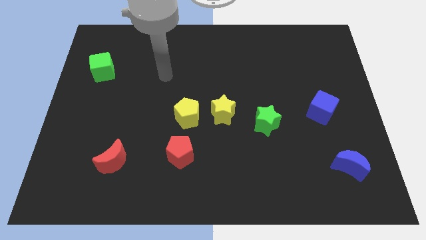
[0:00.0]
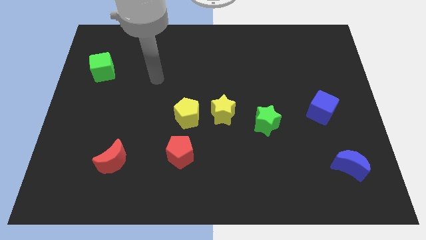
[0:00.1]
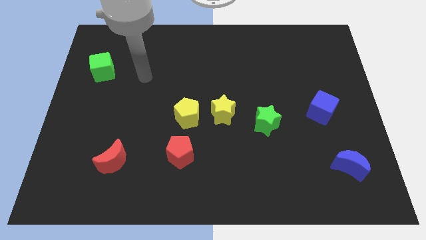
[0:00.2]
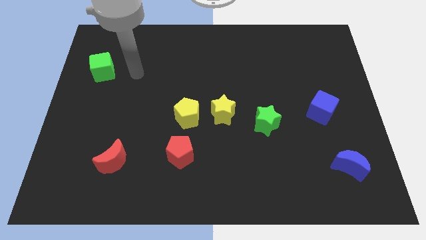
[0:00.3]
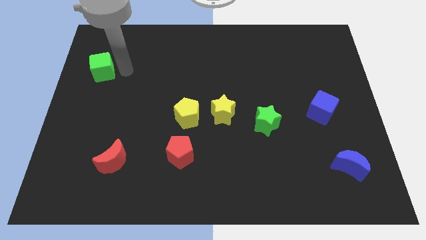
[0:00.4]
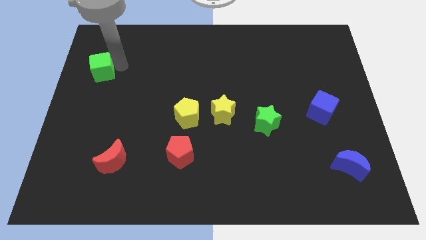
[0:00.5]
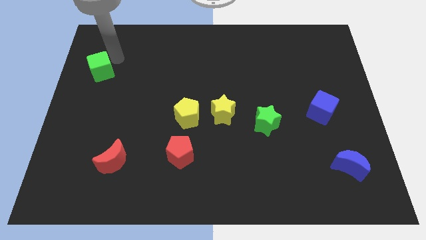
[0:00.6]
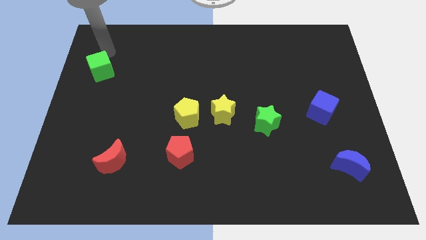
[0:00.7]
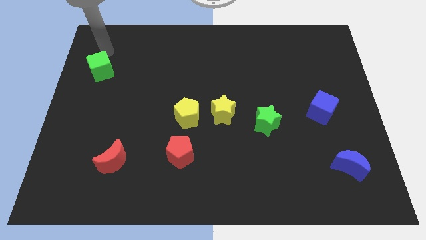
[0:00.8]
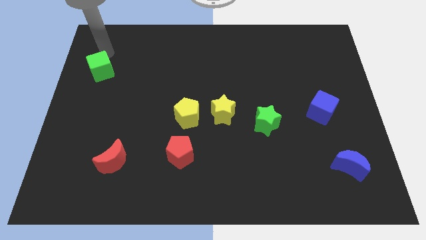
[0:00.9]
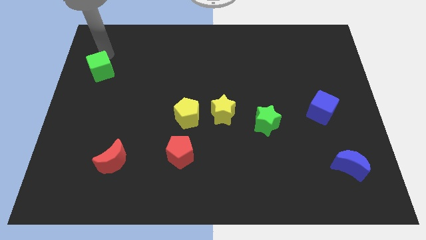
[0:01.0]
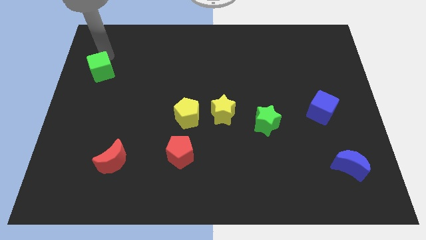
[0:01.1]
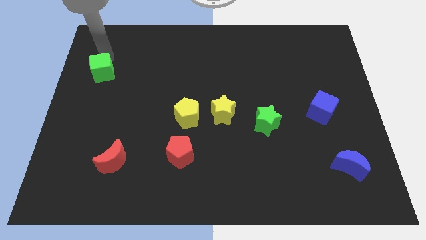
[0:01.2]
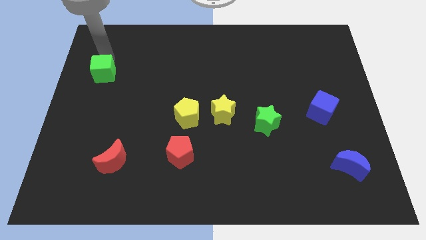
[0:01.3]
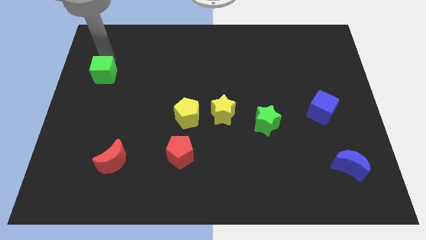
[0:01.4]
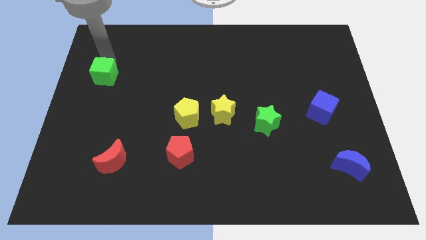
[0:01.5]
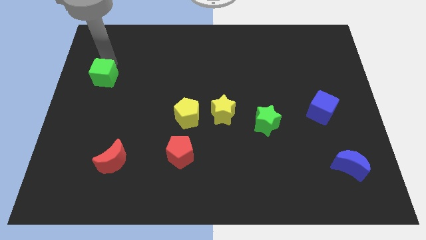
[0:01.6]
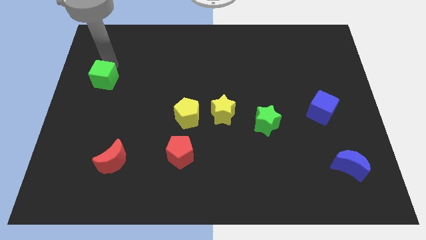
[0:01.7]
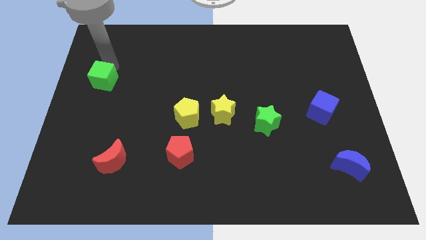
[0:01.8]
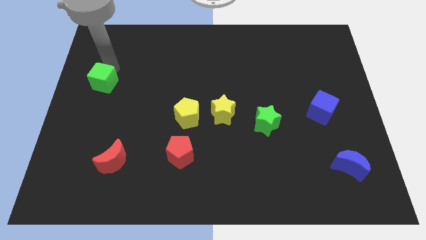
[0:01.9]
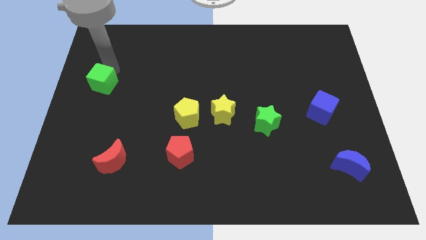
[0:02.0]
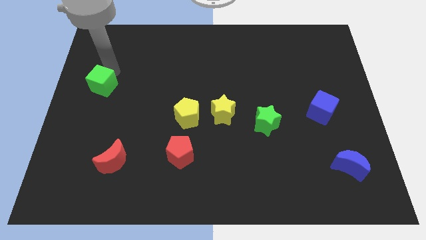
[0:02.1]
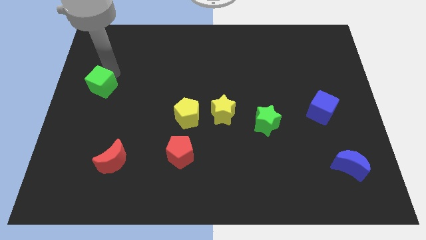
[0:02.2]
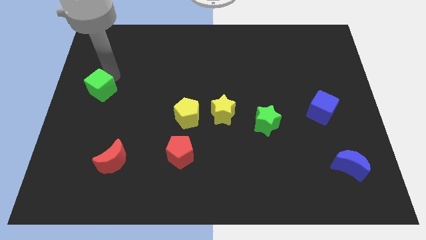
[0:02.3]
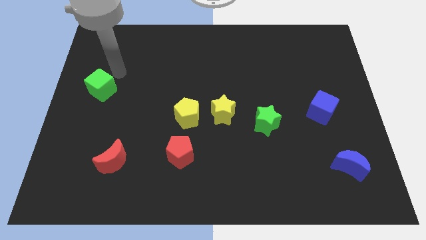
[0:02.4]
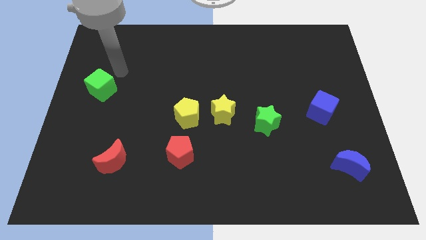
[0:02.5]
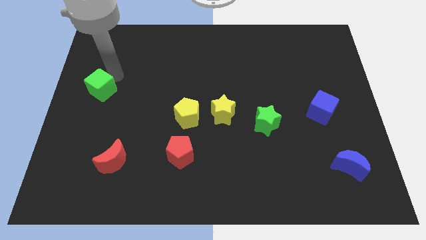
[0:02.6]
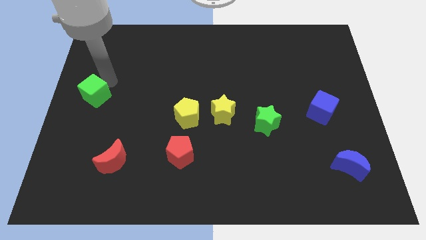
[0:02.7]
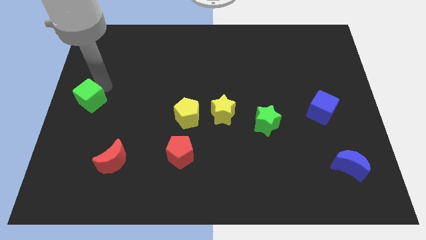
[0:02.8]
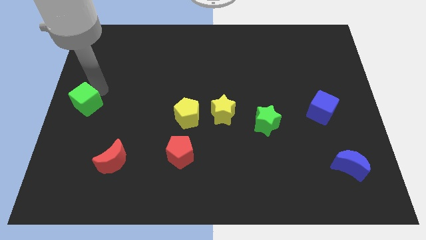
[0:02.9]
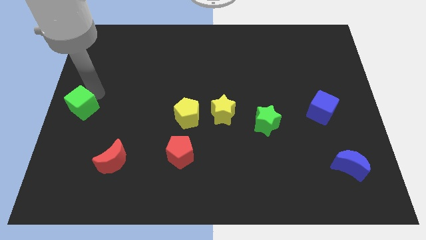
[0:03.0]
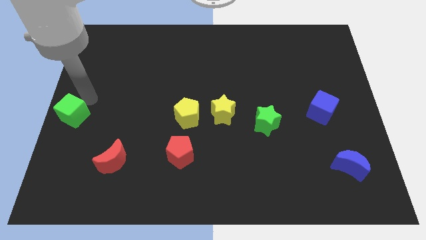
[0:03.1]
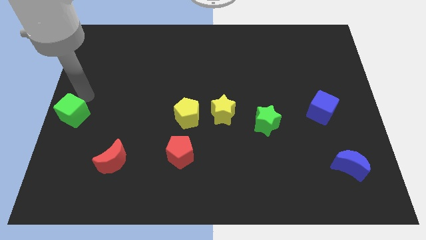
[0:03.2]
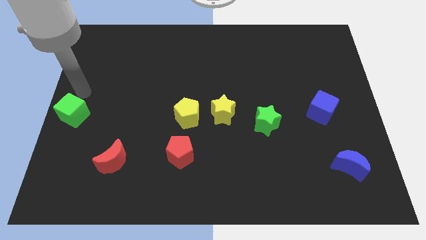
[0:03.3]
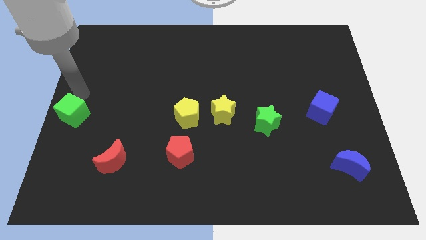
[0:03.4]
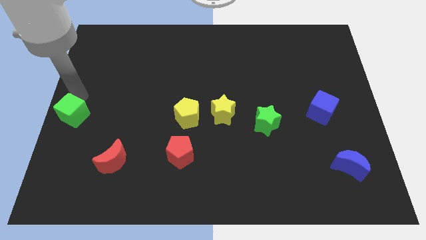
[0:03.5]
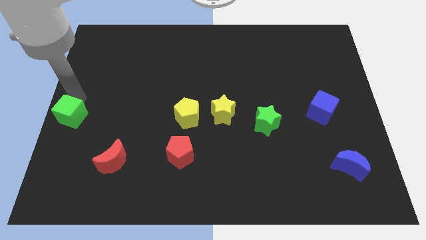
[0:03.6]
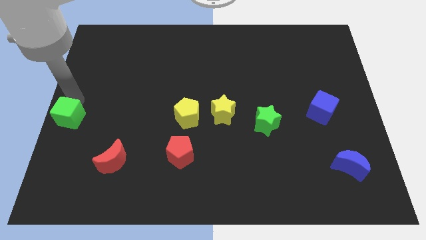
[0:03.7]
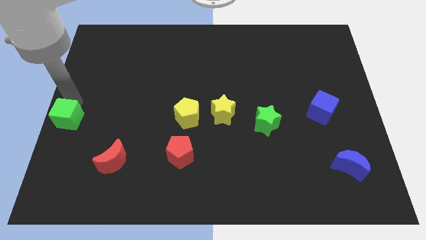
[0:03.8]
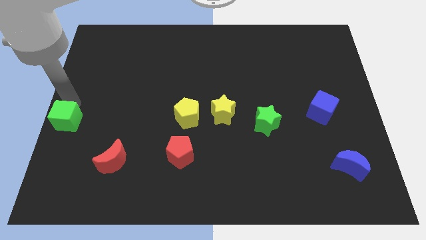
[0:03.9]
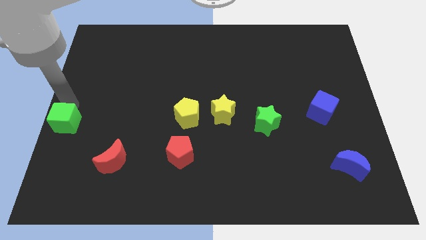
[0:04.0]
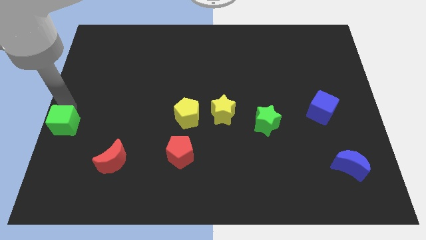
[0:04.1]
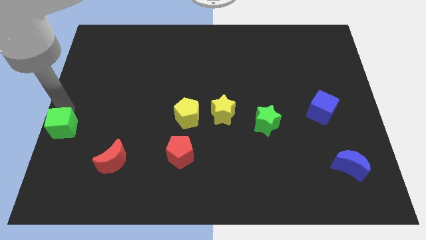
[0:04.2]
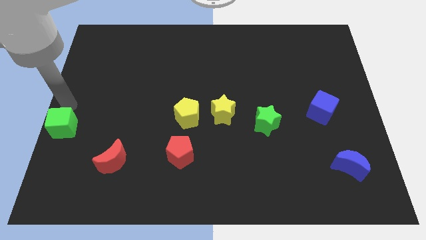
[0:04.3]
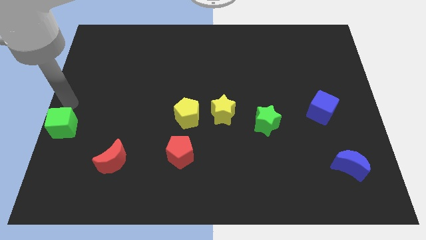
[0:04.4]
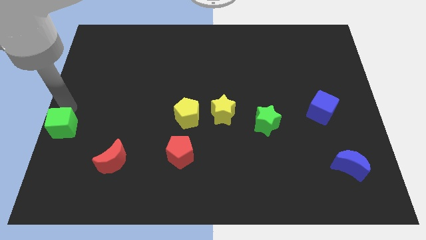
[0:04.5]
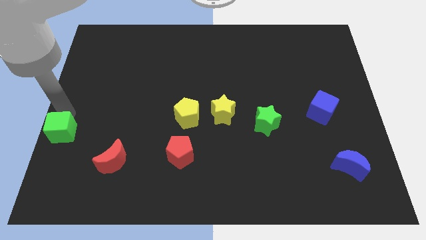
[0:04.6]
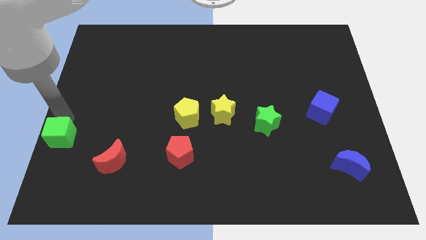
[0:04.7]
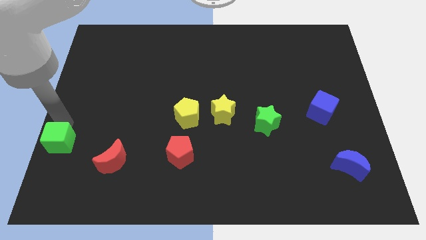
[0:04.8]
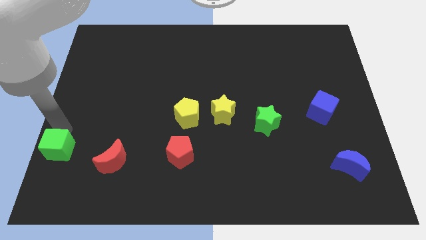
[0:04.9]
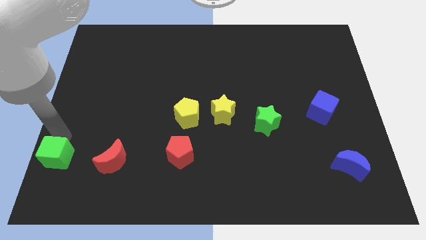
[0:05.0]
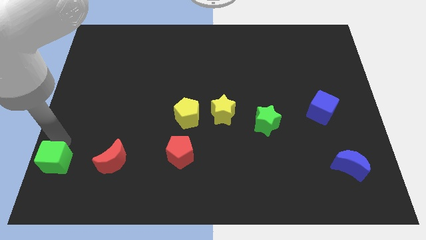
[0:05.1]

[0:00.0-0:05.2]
move the green cube to the lower left corner

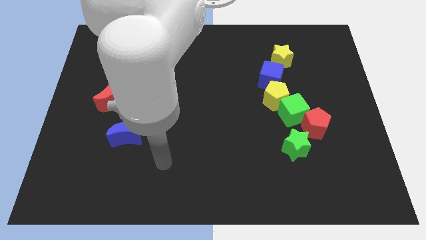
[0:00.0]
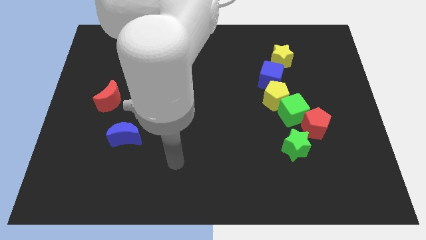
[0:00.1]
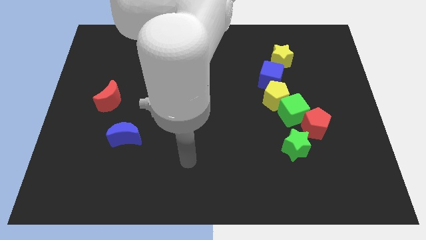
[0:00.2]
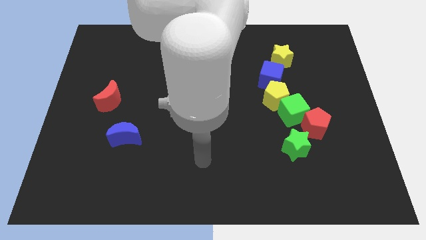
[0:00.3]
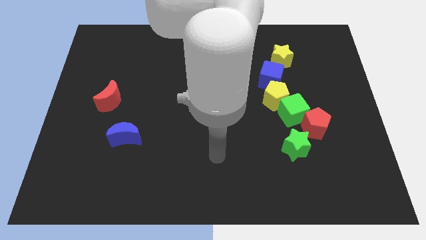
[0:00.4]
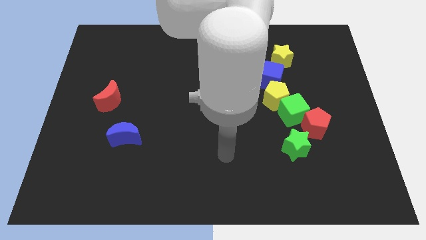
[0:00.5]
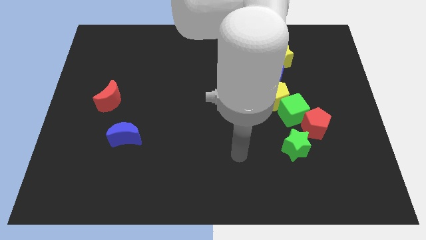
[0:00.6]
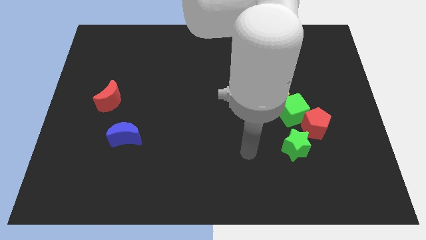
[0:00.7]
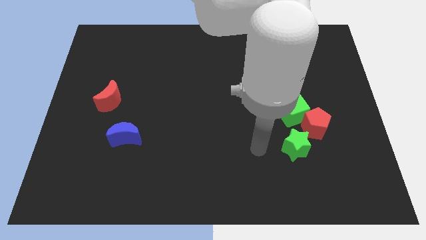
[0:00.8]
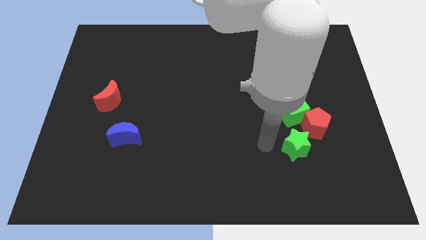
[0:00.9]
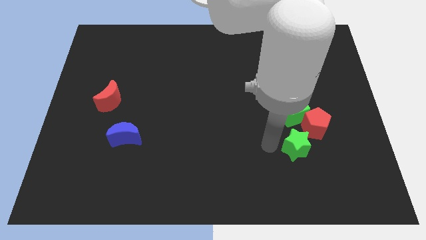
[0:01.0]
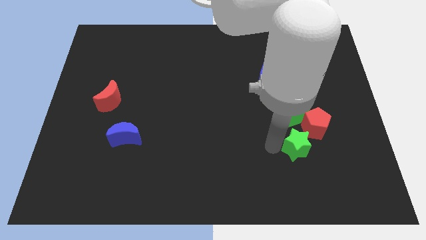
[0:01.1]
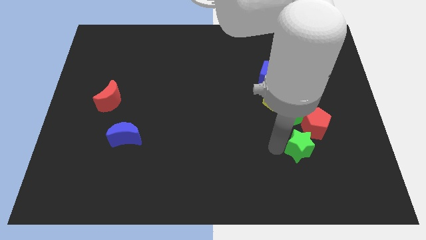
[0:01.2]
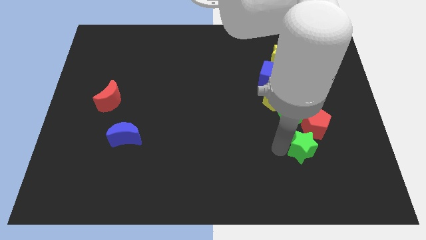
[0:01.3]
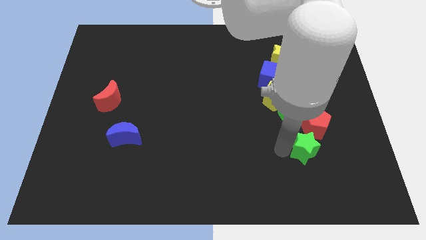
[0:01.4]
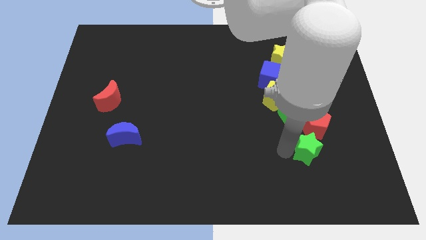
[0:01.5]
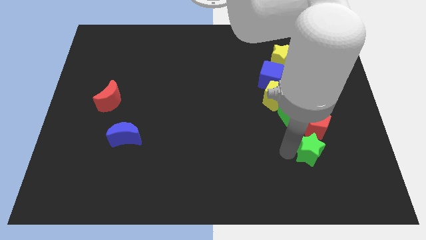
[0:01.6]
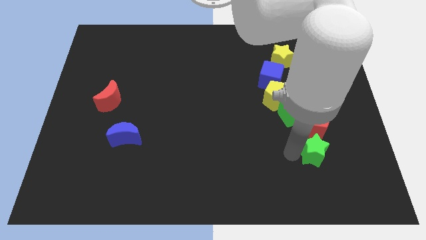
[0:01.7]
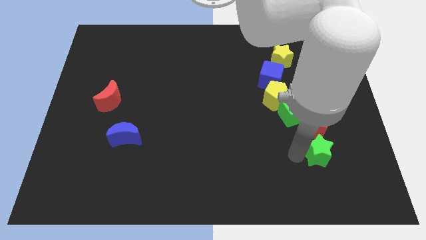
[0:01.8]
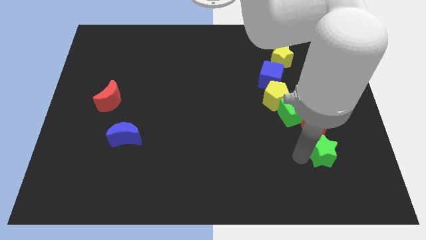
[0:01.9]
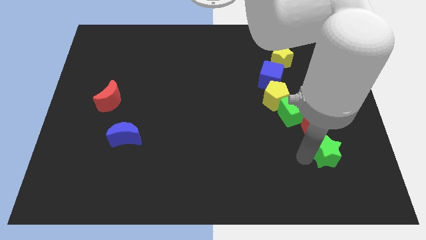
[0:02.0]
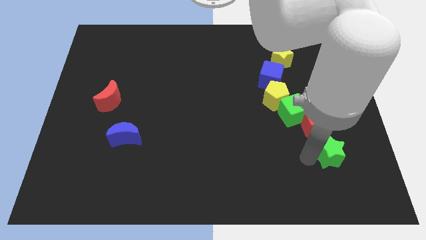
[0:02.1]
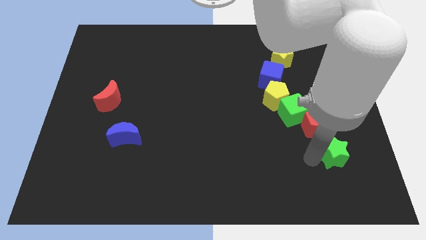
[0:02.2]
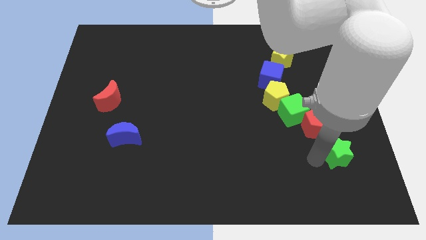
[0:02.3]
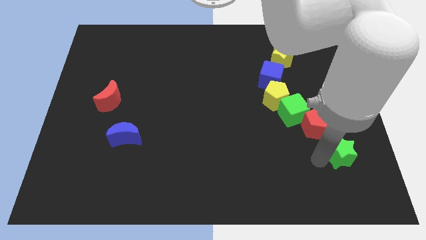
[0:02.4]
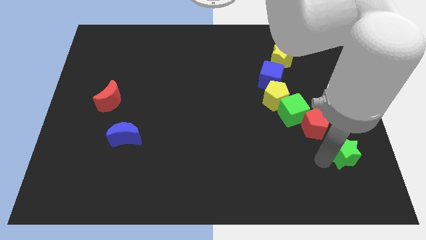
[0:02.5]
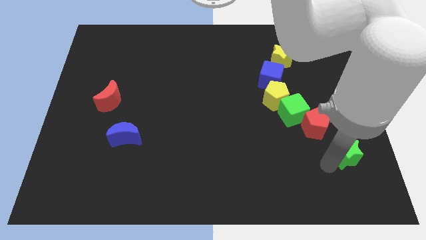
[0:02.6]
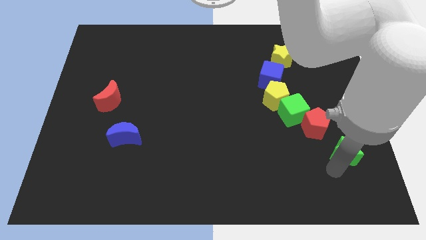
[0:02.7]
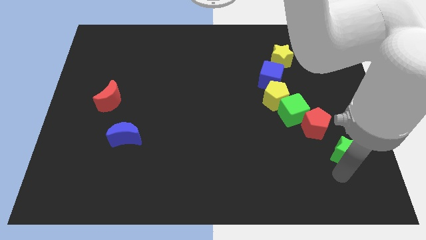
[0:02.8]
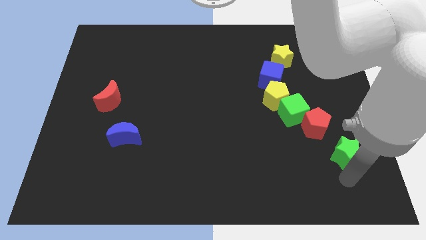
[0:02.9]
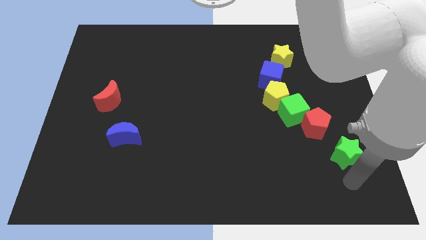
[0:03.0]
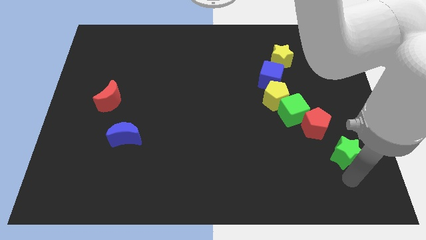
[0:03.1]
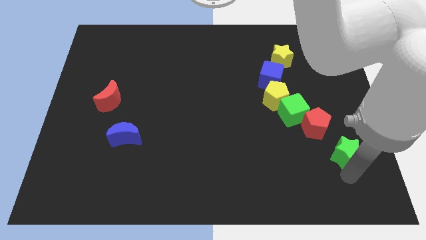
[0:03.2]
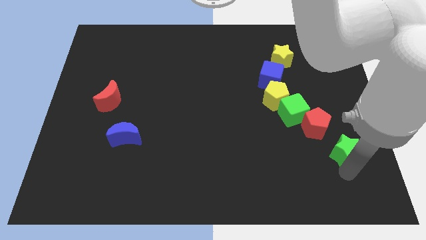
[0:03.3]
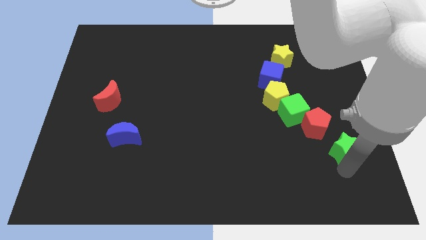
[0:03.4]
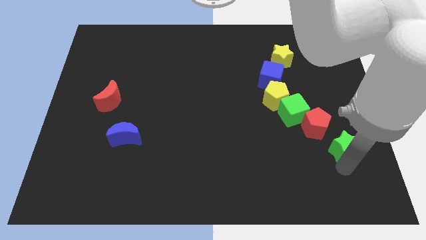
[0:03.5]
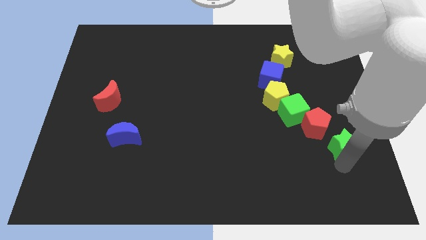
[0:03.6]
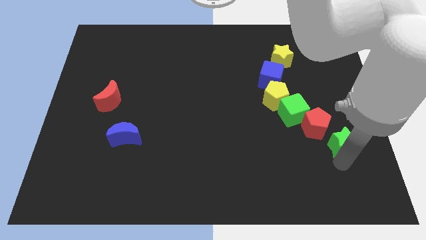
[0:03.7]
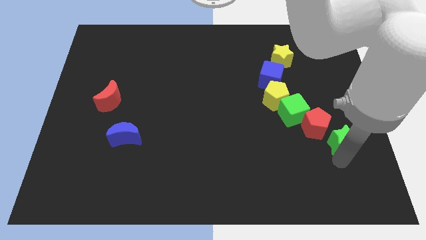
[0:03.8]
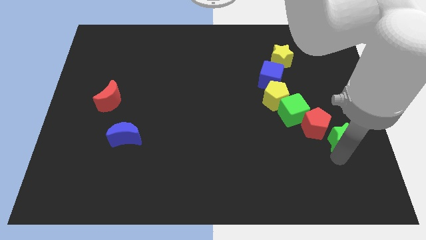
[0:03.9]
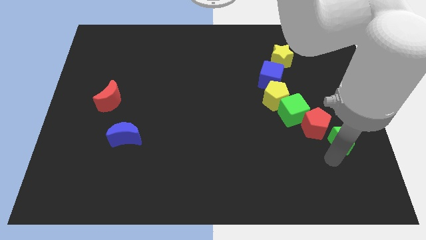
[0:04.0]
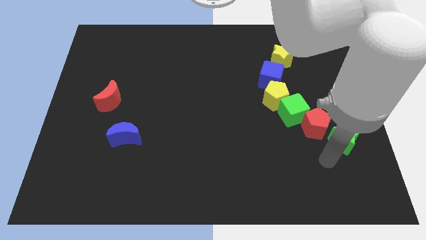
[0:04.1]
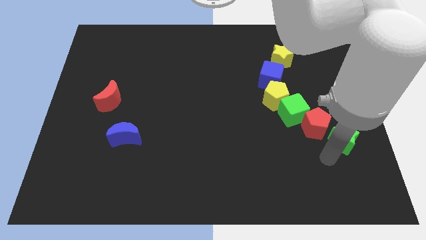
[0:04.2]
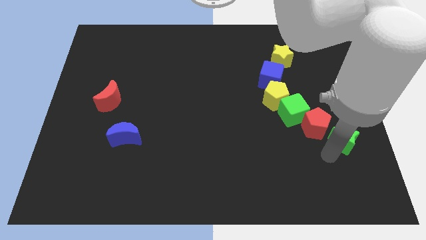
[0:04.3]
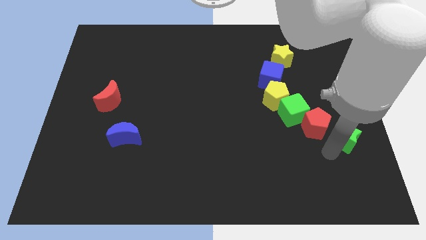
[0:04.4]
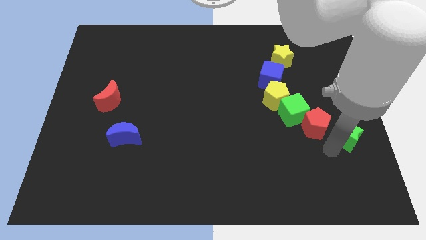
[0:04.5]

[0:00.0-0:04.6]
move the green star to the center right
